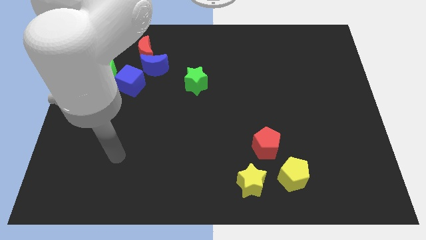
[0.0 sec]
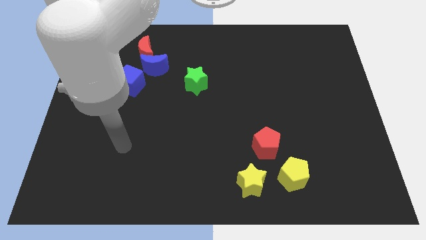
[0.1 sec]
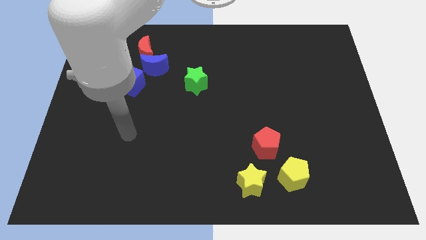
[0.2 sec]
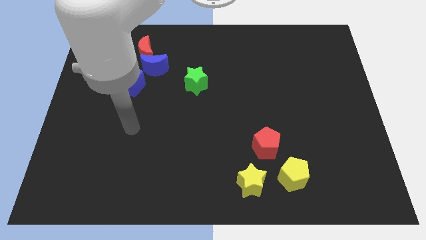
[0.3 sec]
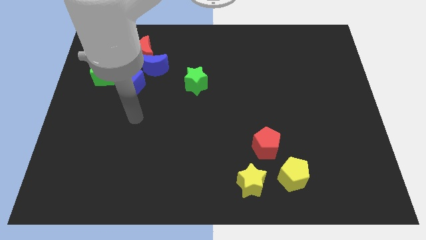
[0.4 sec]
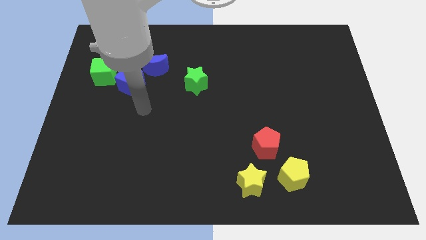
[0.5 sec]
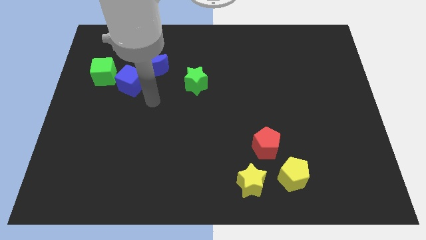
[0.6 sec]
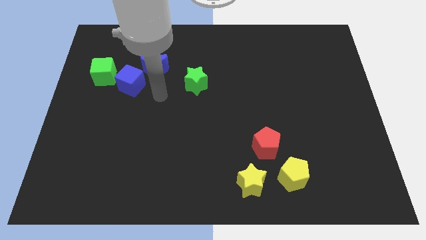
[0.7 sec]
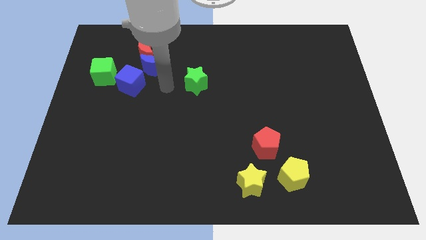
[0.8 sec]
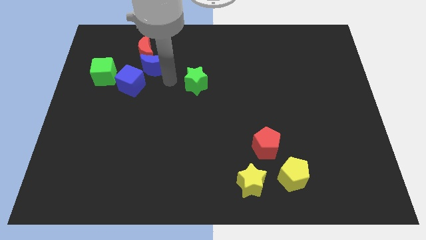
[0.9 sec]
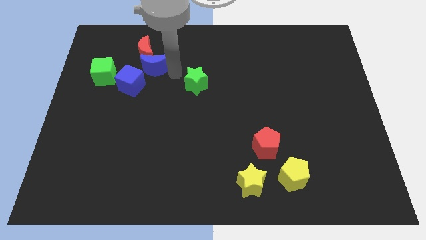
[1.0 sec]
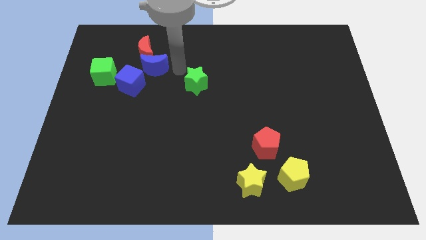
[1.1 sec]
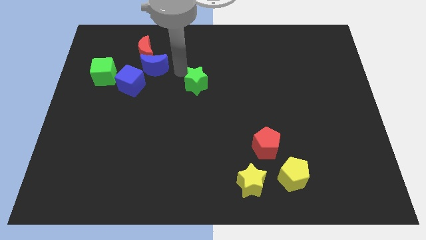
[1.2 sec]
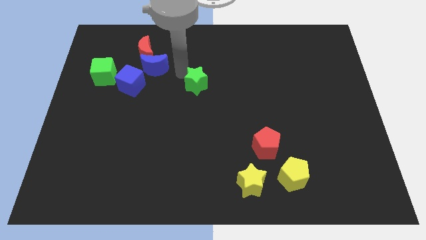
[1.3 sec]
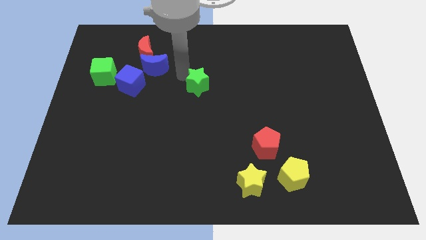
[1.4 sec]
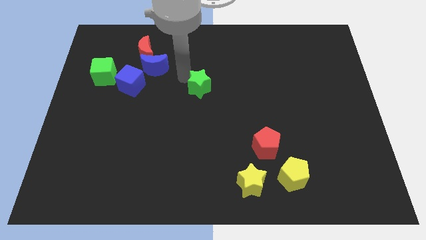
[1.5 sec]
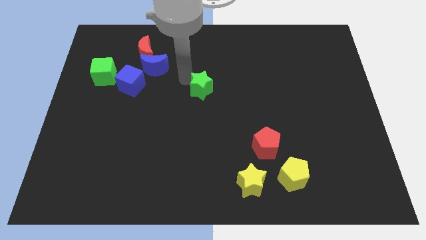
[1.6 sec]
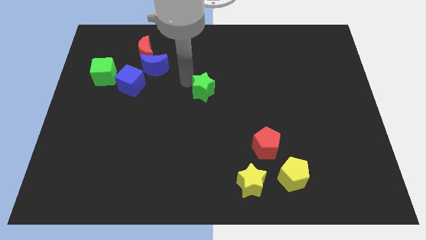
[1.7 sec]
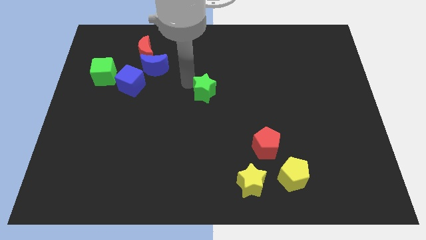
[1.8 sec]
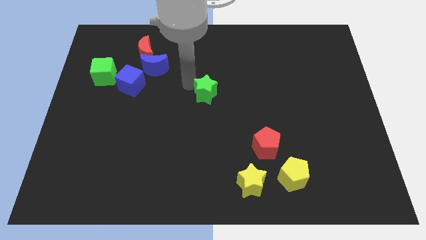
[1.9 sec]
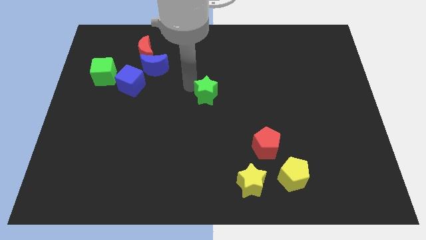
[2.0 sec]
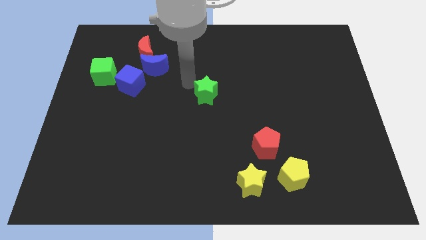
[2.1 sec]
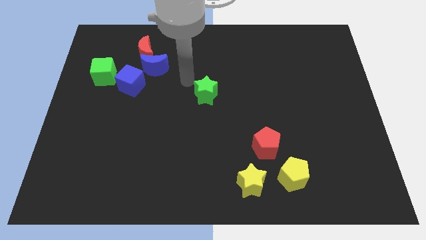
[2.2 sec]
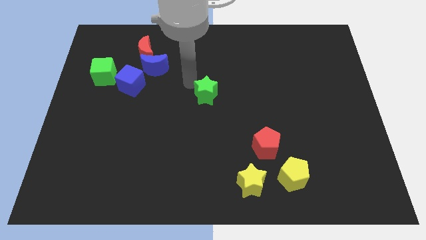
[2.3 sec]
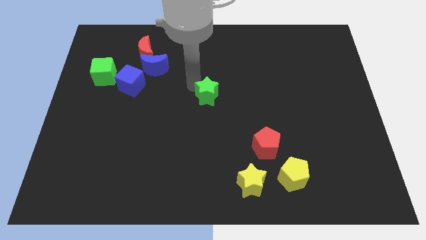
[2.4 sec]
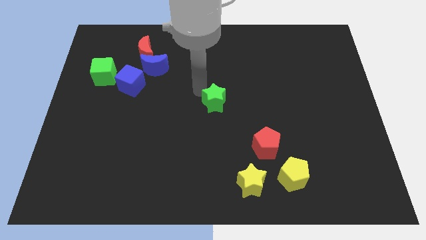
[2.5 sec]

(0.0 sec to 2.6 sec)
slightly push the green star down and right

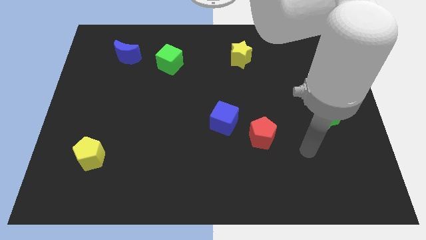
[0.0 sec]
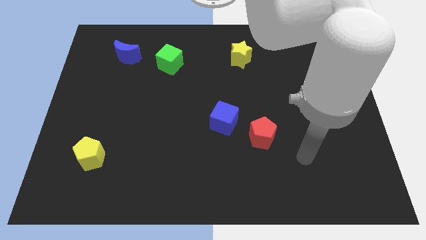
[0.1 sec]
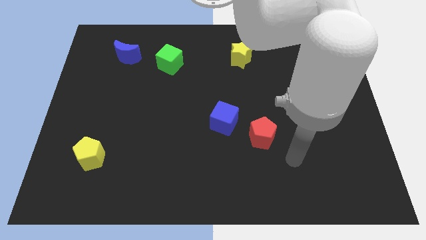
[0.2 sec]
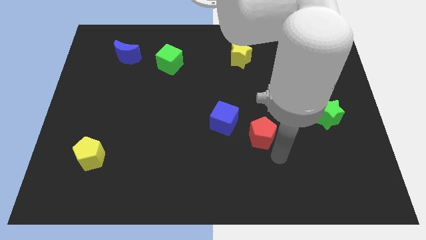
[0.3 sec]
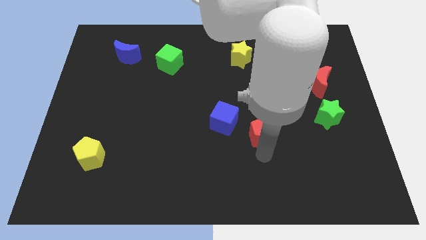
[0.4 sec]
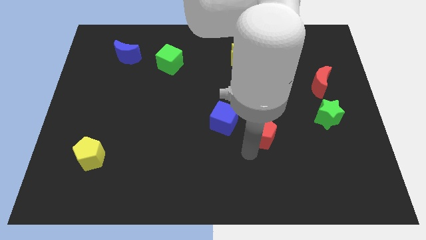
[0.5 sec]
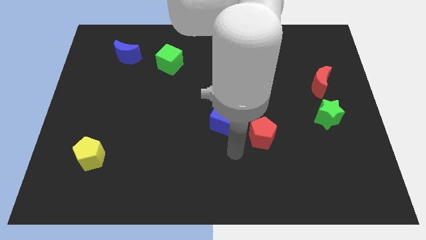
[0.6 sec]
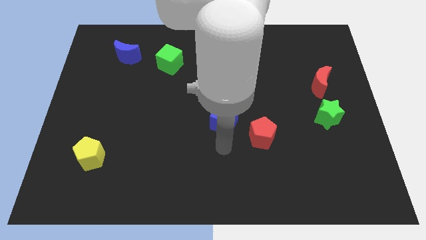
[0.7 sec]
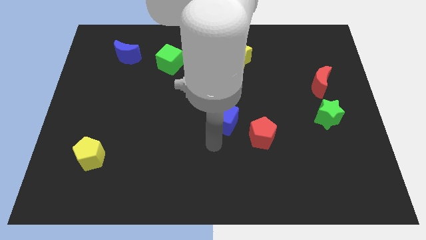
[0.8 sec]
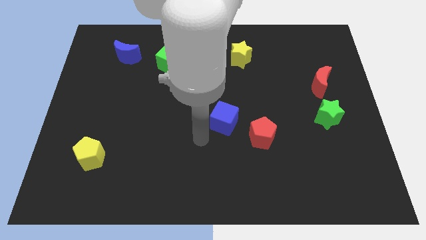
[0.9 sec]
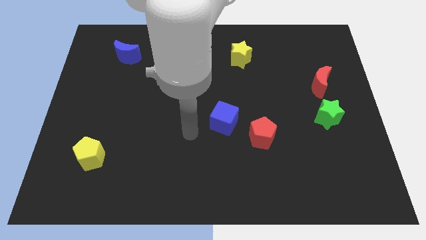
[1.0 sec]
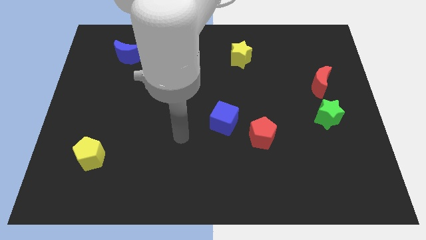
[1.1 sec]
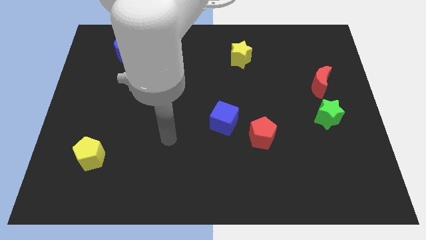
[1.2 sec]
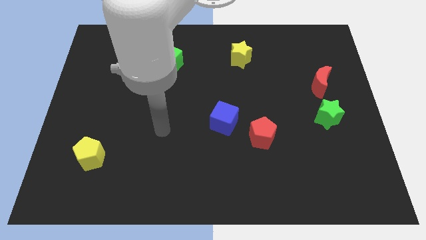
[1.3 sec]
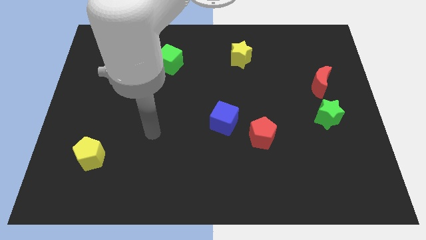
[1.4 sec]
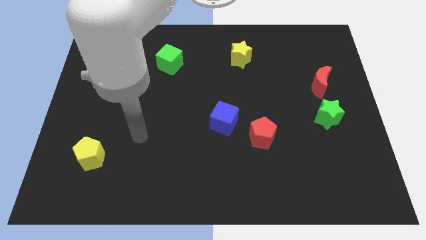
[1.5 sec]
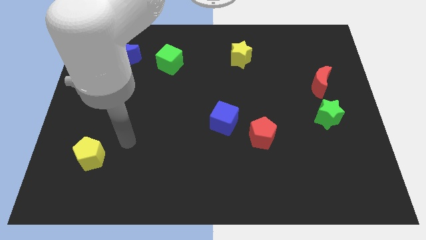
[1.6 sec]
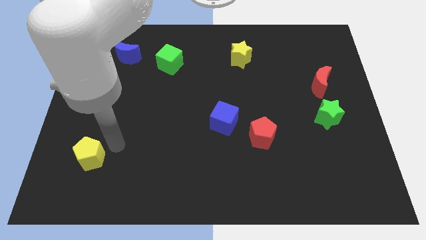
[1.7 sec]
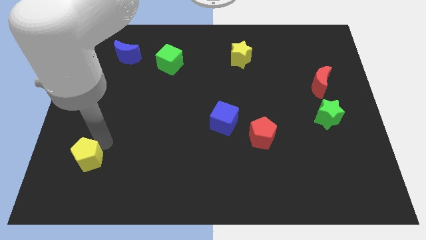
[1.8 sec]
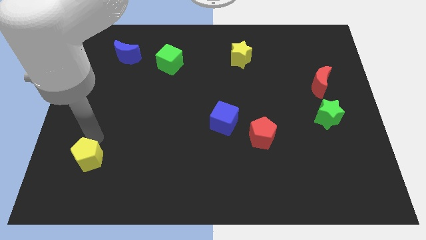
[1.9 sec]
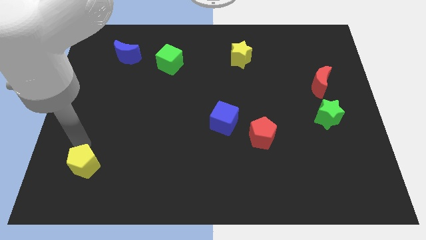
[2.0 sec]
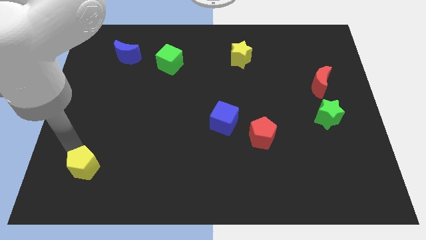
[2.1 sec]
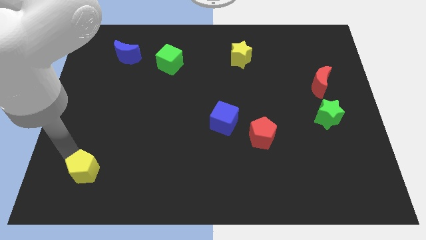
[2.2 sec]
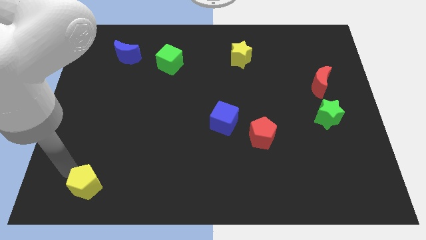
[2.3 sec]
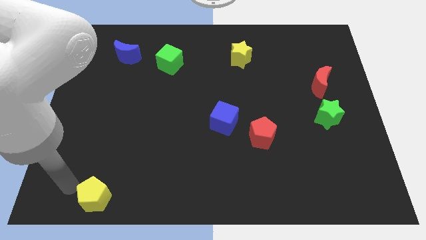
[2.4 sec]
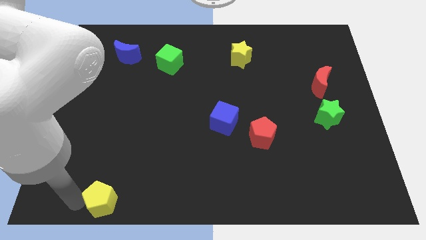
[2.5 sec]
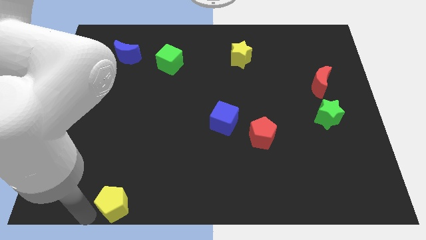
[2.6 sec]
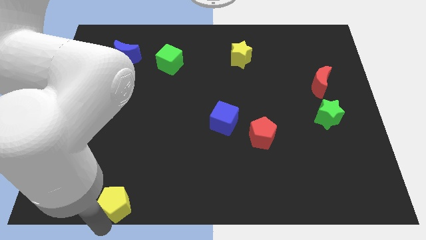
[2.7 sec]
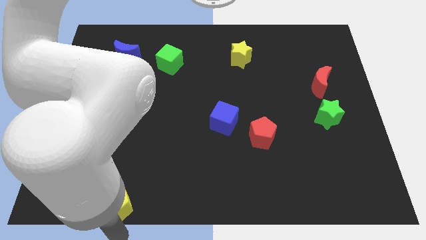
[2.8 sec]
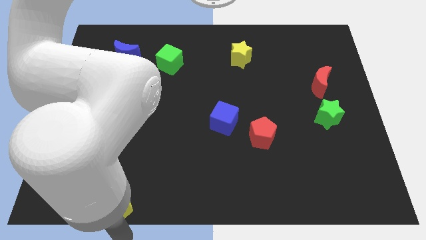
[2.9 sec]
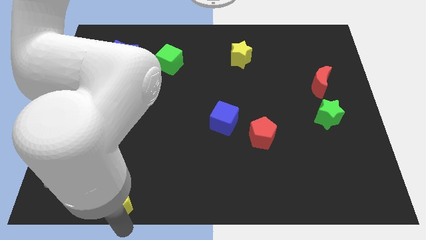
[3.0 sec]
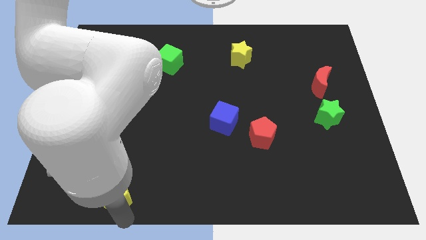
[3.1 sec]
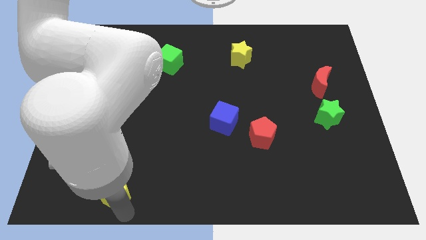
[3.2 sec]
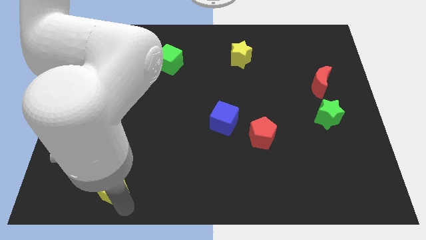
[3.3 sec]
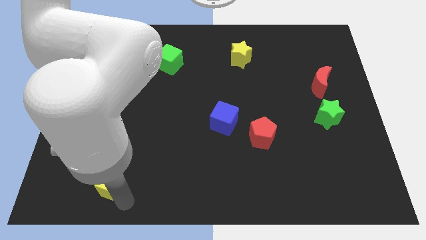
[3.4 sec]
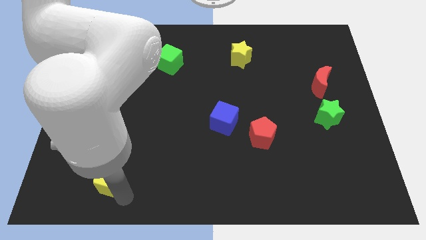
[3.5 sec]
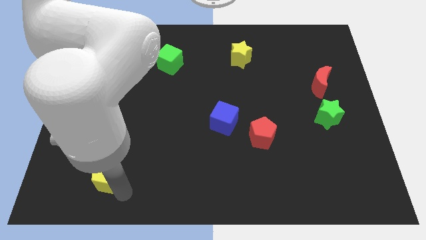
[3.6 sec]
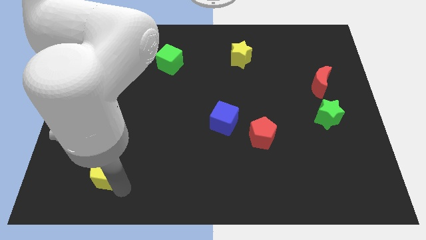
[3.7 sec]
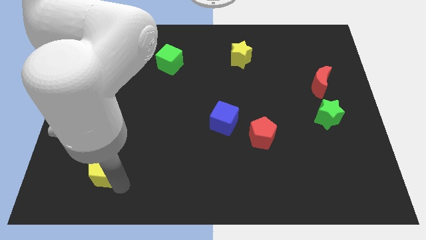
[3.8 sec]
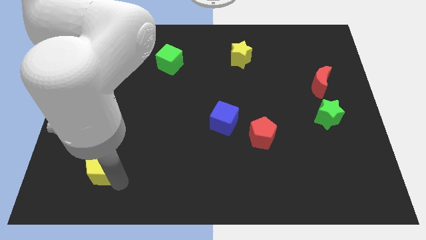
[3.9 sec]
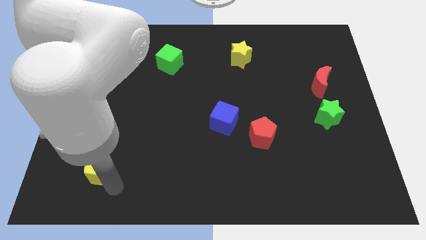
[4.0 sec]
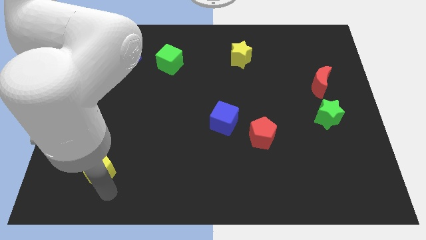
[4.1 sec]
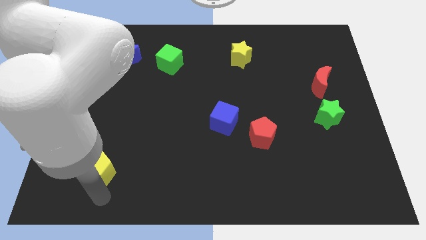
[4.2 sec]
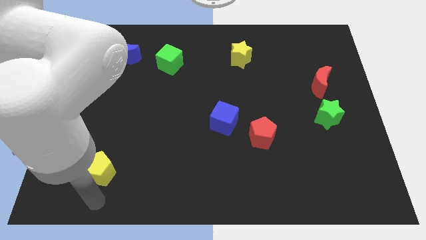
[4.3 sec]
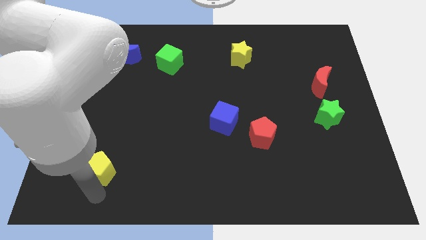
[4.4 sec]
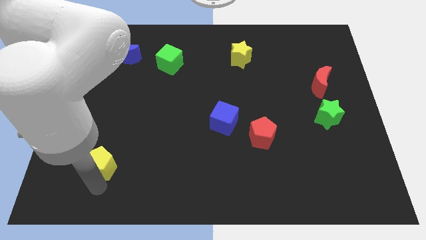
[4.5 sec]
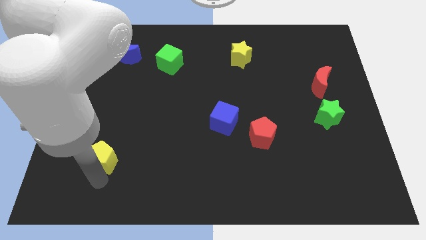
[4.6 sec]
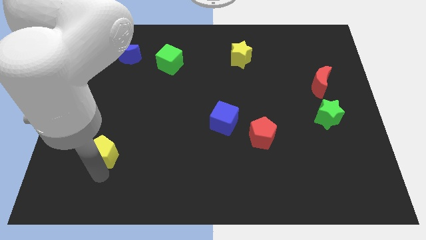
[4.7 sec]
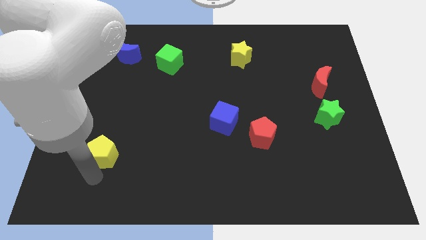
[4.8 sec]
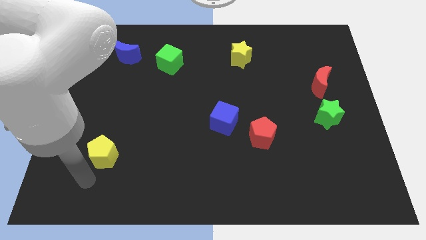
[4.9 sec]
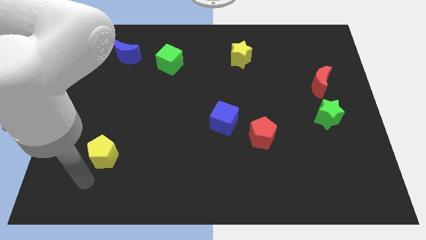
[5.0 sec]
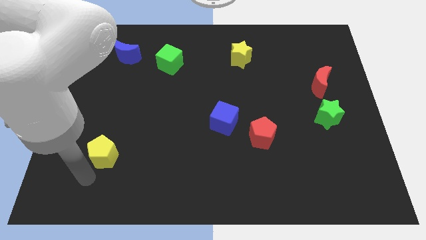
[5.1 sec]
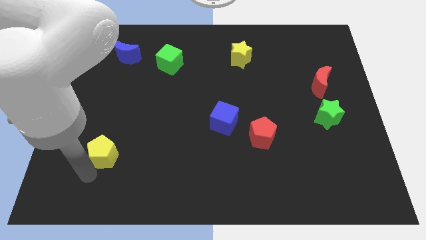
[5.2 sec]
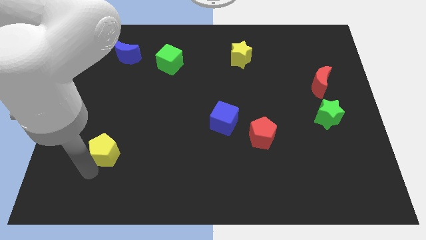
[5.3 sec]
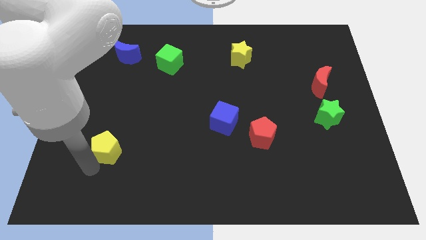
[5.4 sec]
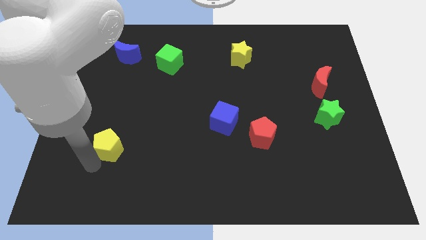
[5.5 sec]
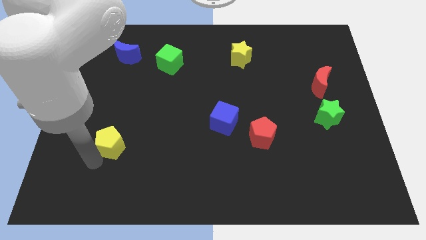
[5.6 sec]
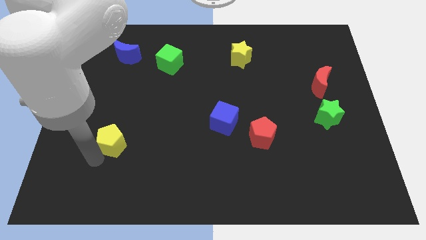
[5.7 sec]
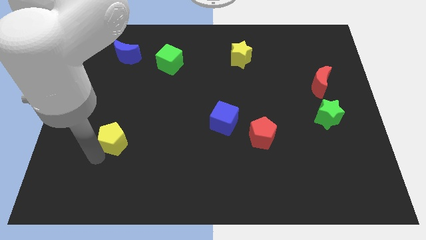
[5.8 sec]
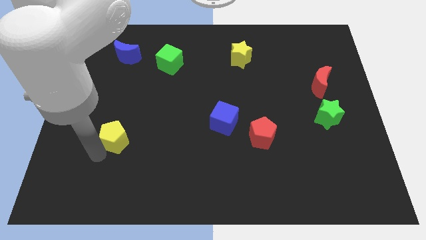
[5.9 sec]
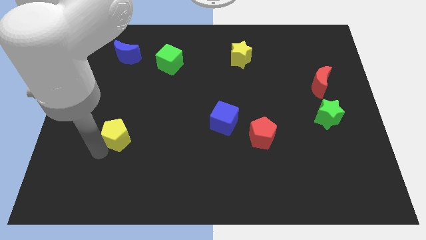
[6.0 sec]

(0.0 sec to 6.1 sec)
slide the yellow pentagon diagonally up and right slightly

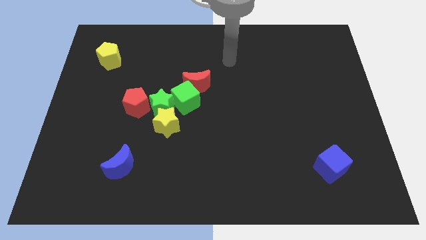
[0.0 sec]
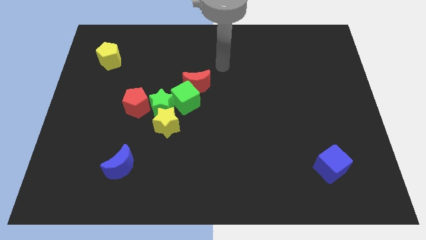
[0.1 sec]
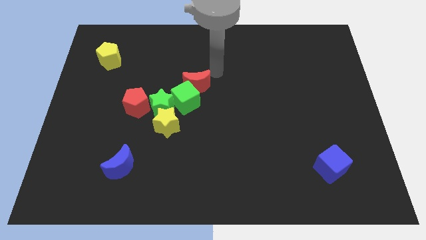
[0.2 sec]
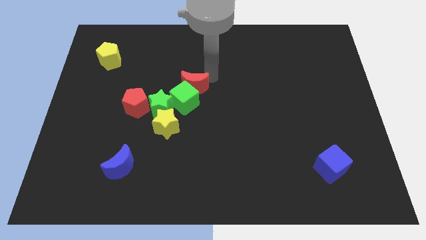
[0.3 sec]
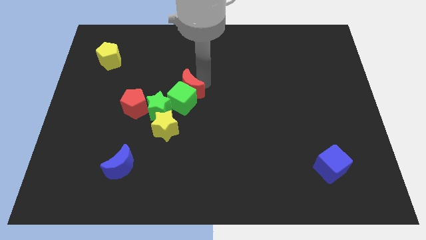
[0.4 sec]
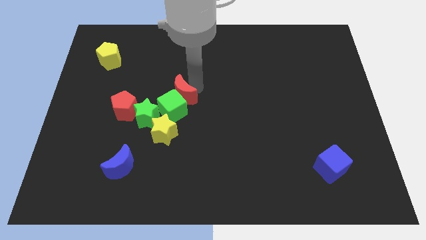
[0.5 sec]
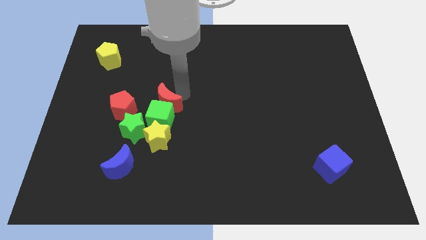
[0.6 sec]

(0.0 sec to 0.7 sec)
push the green star down and to the left diagonally a little
